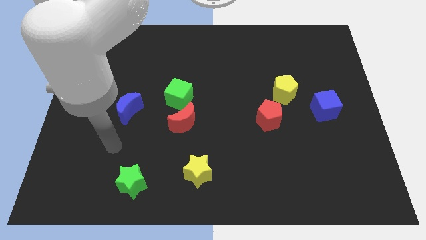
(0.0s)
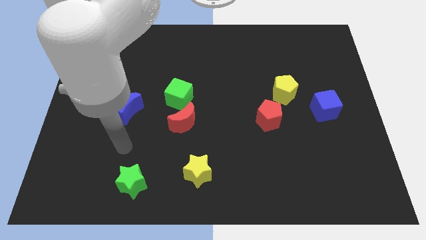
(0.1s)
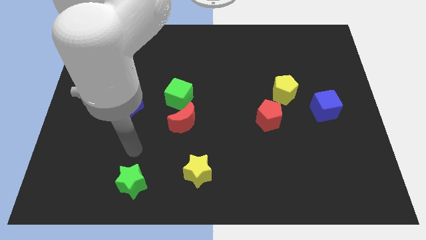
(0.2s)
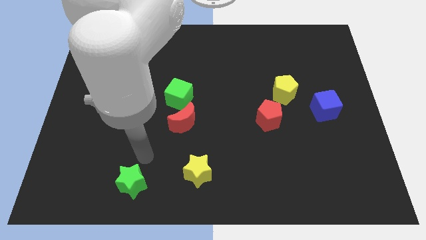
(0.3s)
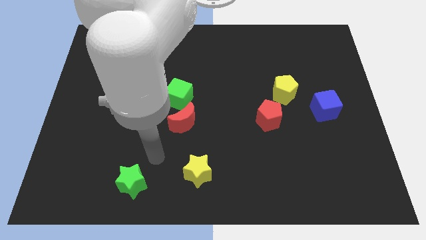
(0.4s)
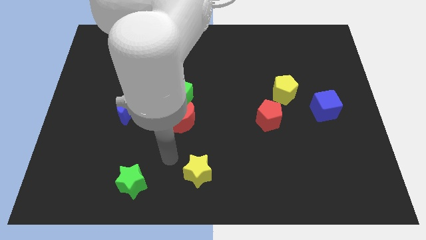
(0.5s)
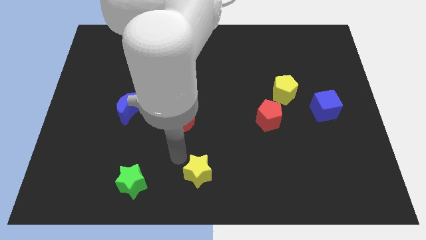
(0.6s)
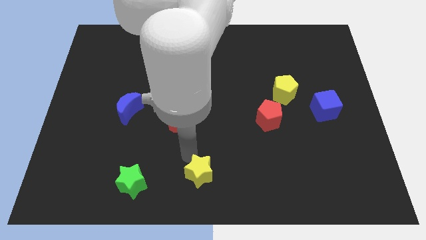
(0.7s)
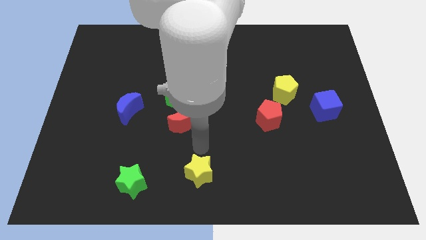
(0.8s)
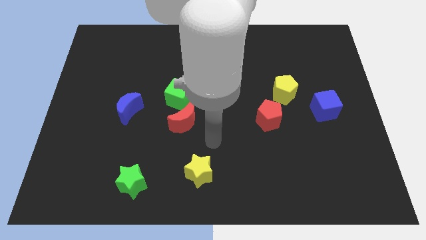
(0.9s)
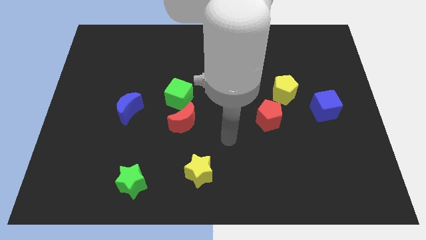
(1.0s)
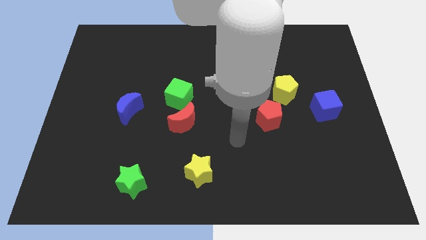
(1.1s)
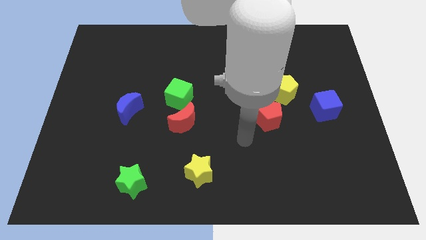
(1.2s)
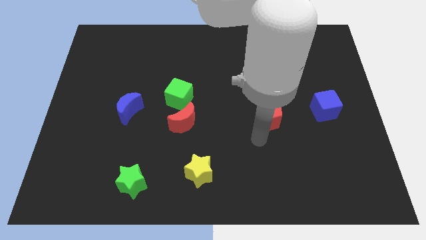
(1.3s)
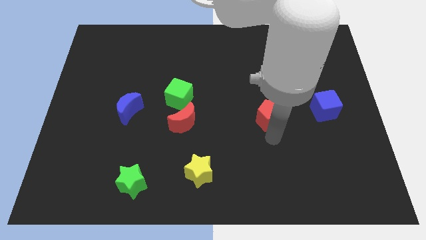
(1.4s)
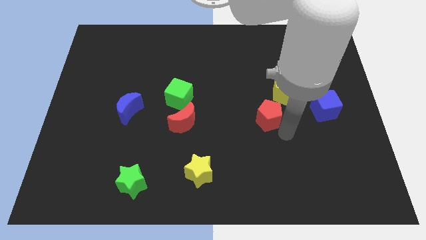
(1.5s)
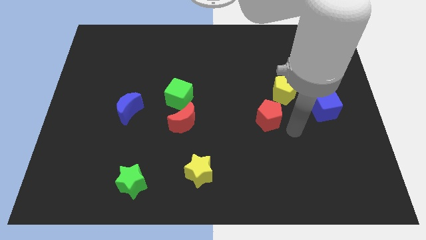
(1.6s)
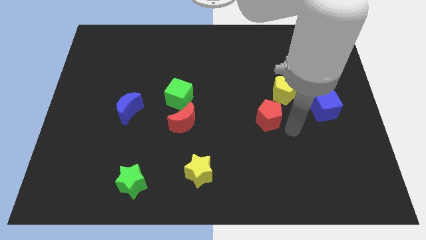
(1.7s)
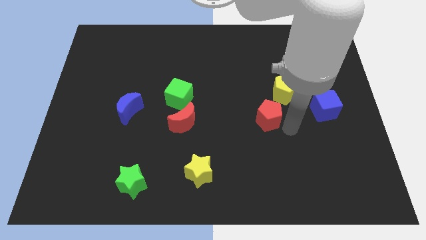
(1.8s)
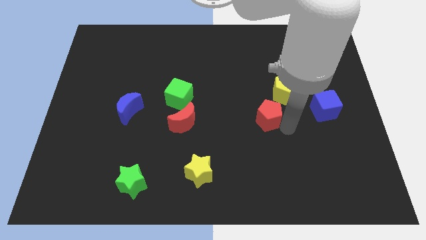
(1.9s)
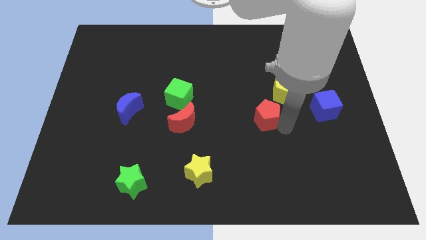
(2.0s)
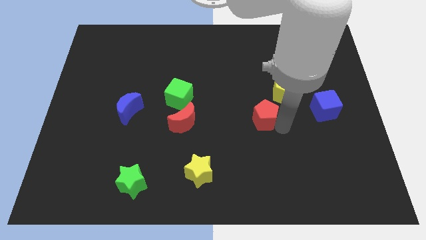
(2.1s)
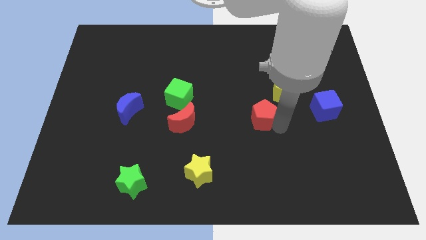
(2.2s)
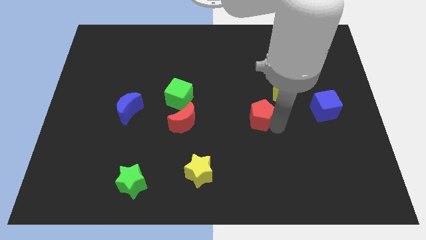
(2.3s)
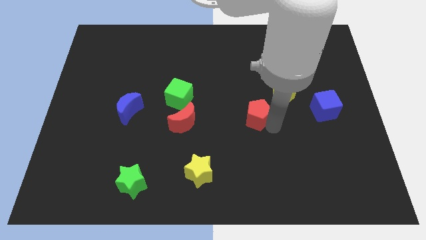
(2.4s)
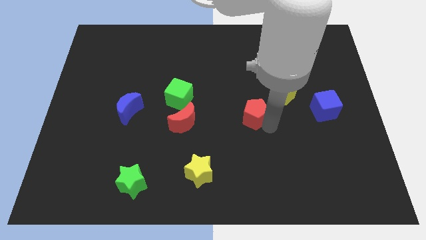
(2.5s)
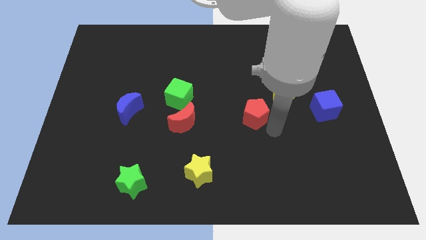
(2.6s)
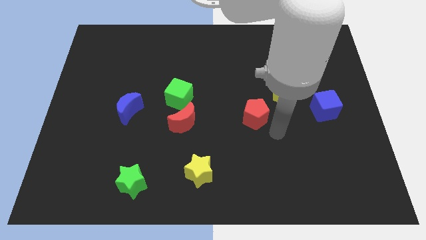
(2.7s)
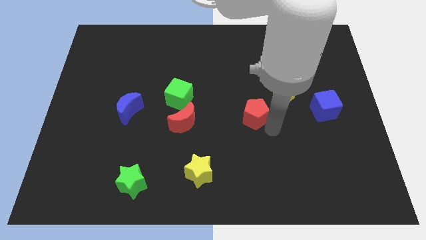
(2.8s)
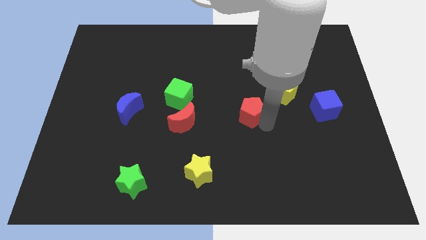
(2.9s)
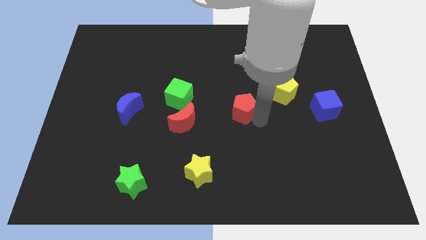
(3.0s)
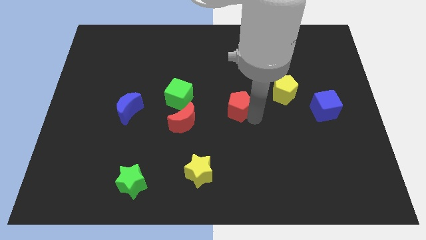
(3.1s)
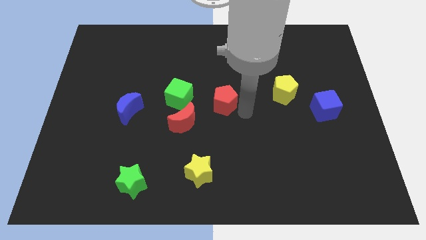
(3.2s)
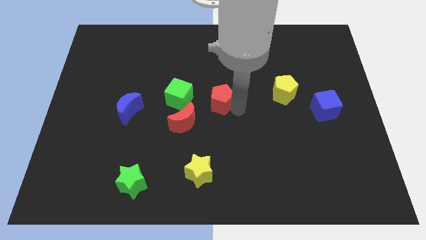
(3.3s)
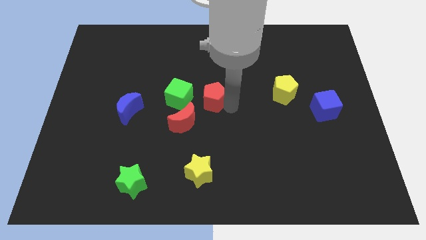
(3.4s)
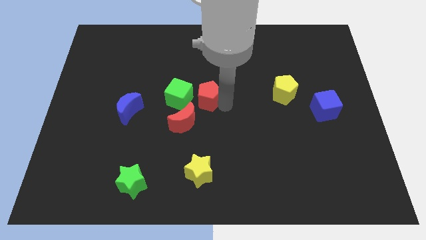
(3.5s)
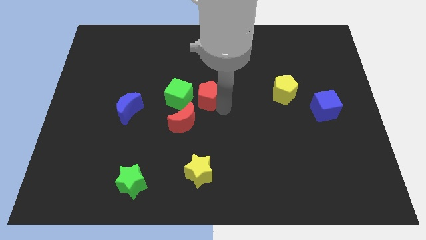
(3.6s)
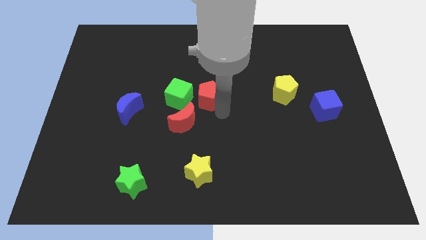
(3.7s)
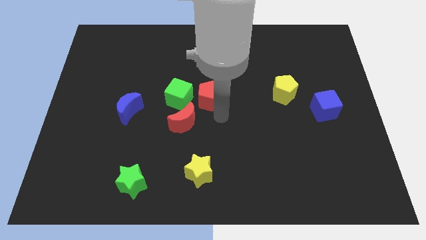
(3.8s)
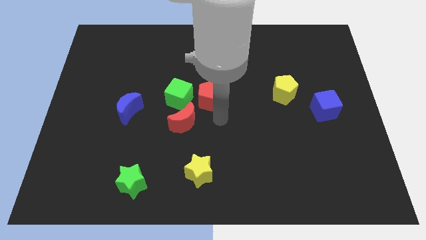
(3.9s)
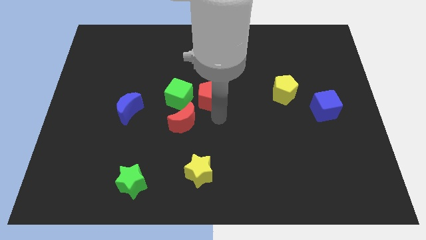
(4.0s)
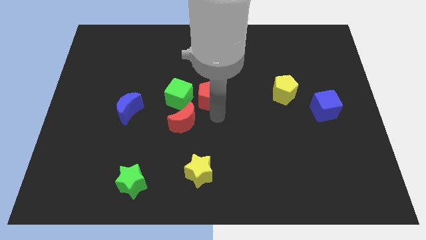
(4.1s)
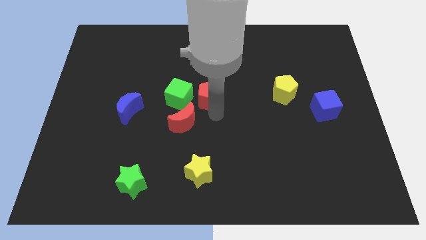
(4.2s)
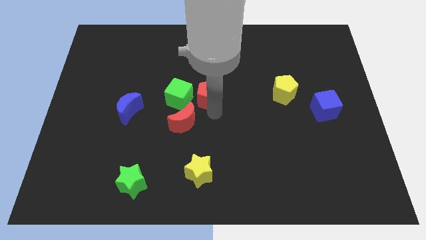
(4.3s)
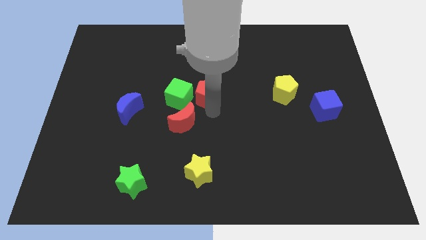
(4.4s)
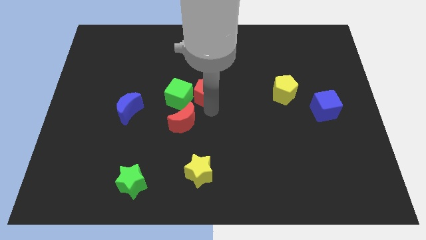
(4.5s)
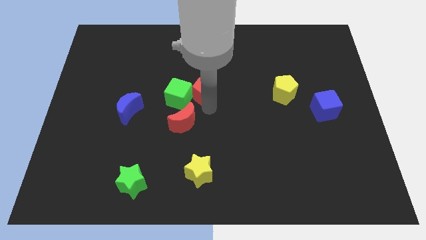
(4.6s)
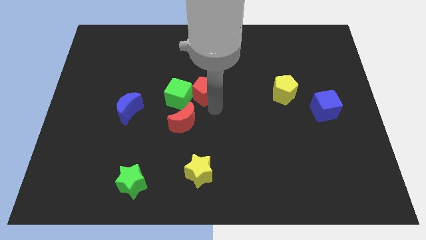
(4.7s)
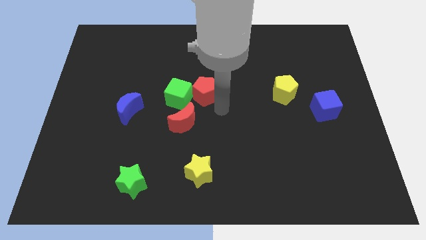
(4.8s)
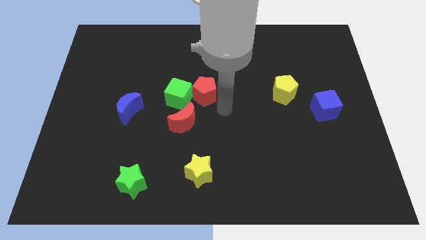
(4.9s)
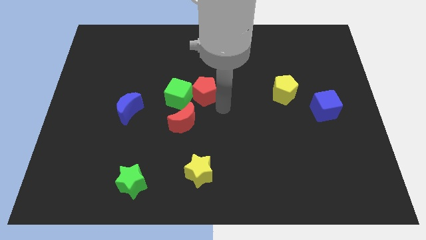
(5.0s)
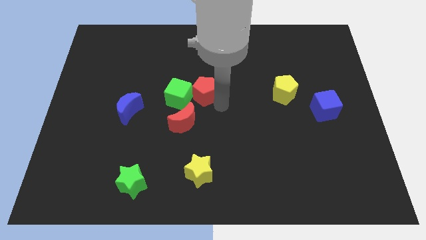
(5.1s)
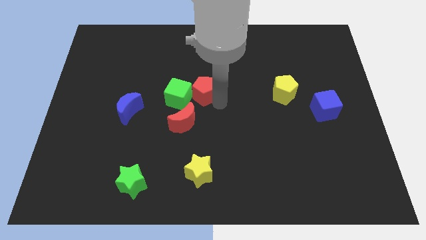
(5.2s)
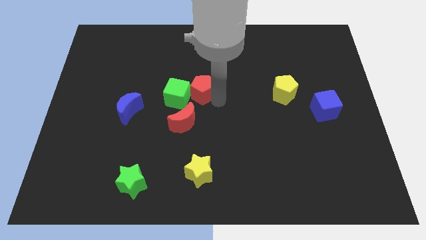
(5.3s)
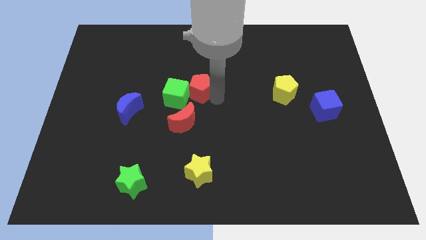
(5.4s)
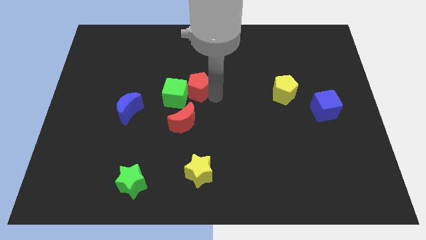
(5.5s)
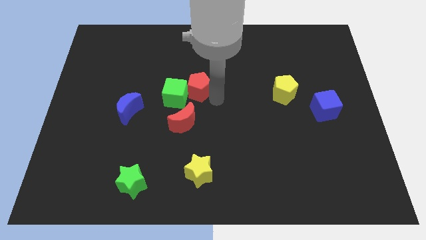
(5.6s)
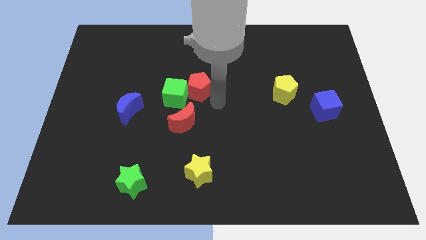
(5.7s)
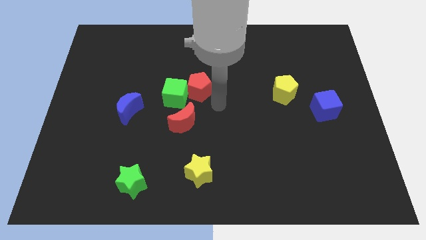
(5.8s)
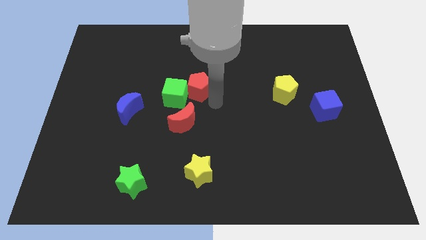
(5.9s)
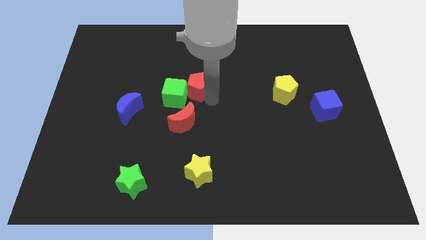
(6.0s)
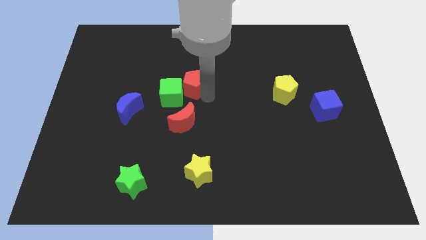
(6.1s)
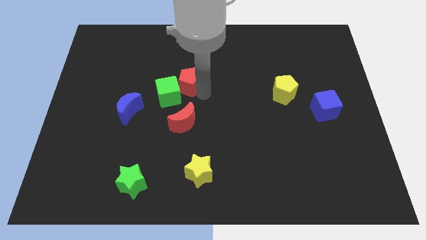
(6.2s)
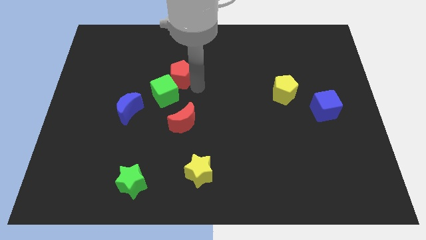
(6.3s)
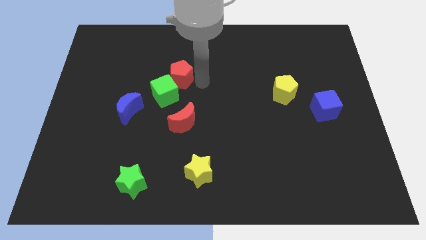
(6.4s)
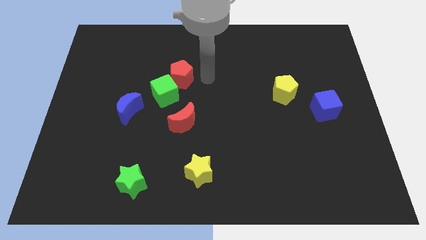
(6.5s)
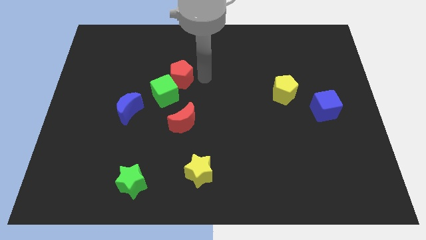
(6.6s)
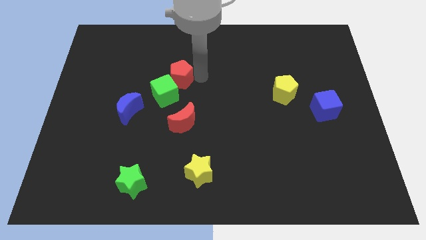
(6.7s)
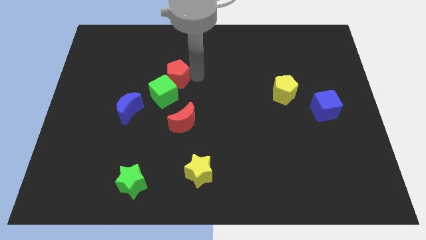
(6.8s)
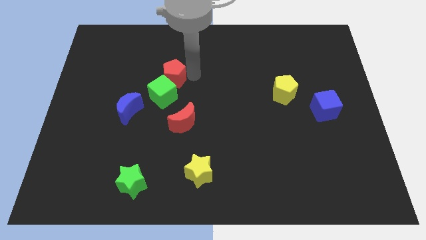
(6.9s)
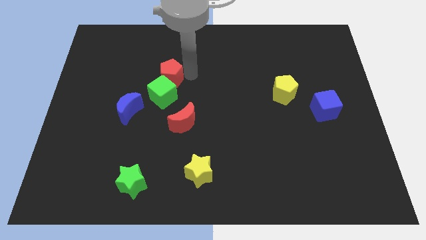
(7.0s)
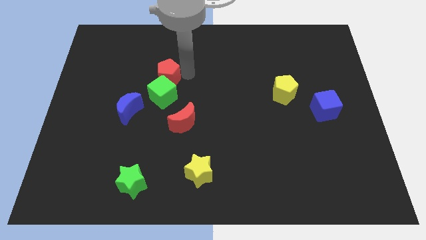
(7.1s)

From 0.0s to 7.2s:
slide the red pentagon diagonally up and to the left of the green cube

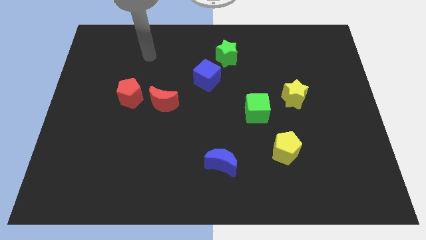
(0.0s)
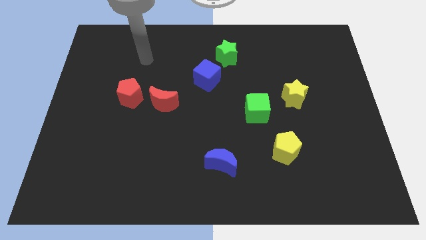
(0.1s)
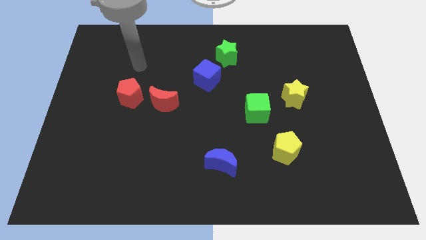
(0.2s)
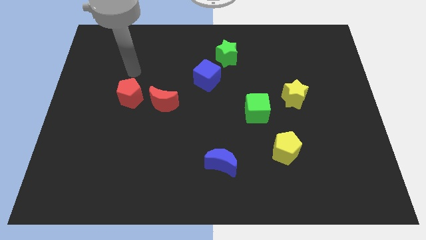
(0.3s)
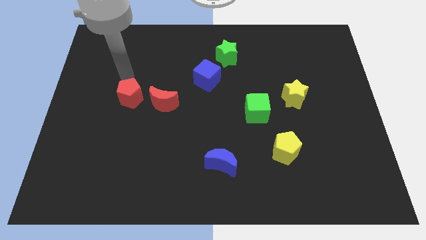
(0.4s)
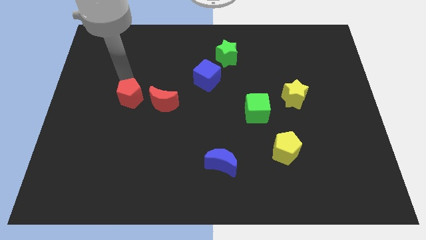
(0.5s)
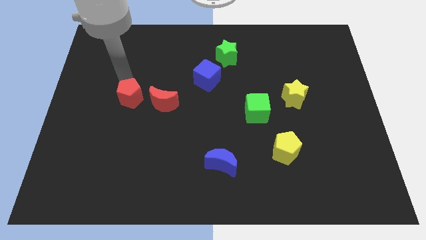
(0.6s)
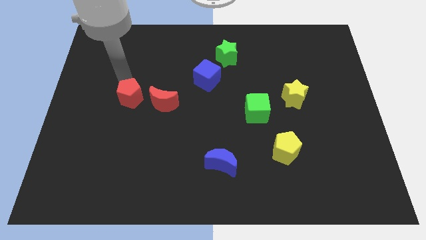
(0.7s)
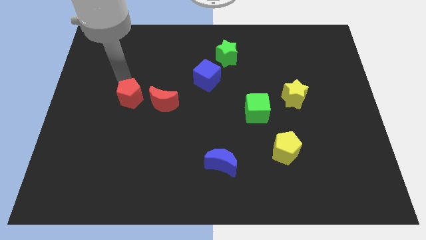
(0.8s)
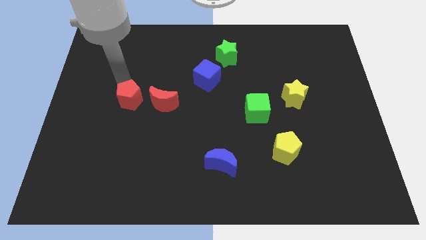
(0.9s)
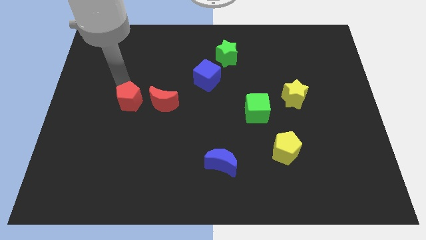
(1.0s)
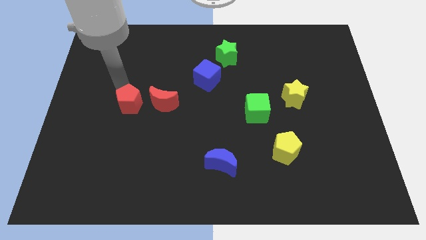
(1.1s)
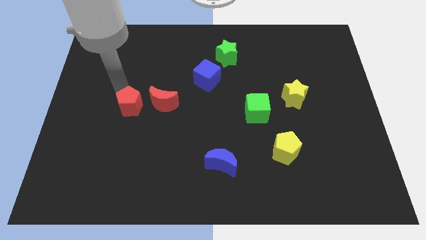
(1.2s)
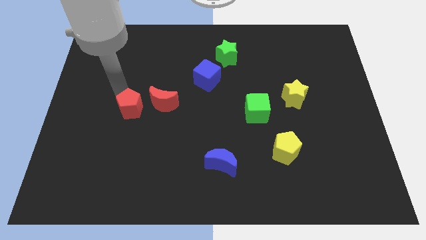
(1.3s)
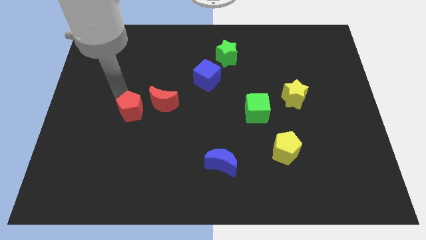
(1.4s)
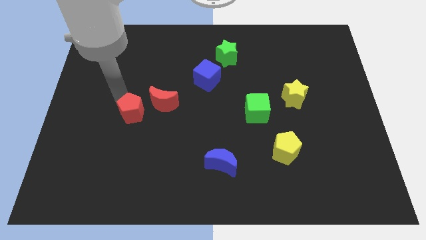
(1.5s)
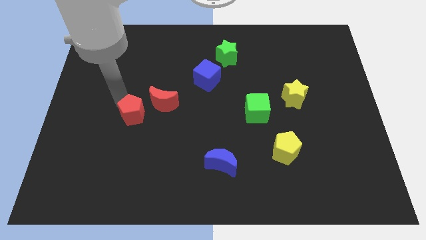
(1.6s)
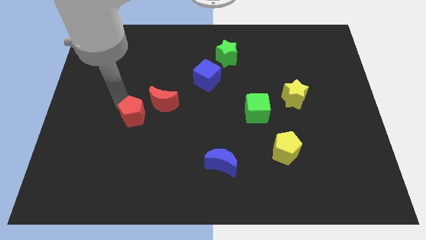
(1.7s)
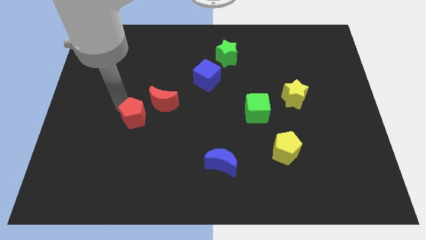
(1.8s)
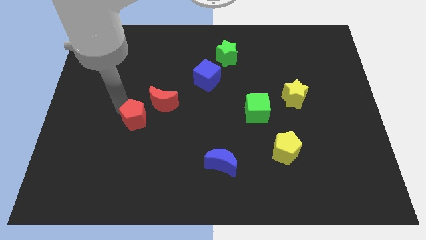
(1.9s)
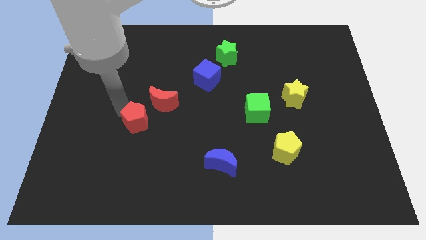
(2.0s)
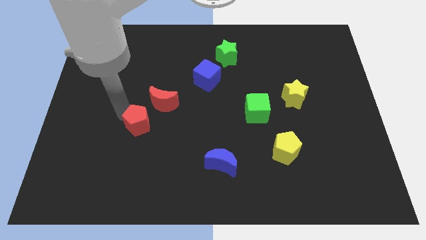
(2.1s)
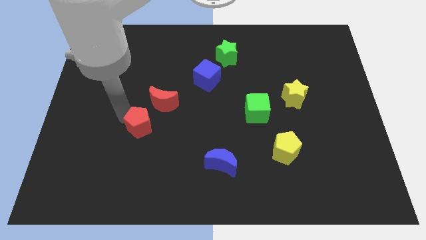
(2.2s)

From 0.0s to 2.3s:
move the red pentagon to the bottom side of the red moon
